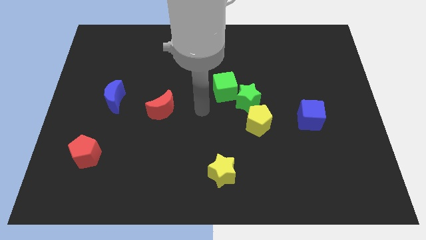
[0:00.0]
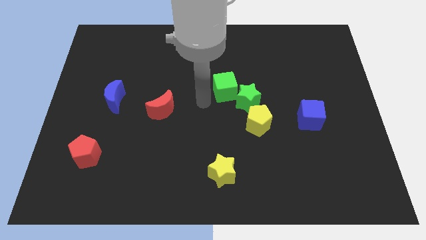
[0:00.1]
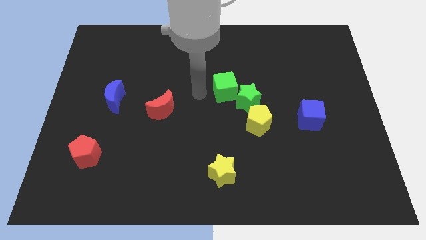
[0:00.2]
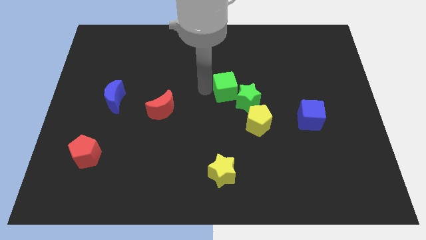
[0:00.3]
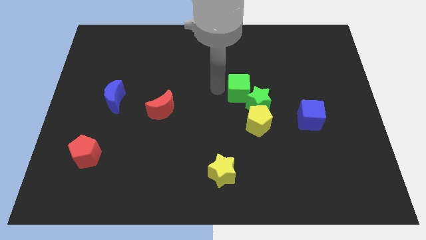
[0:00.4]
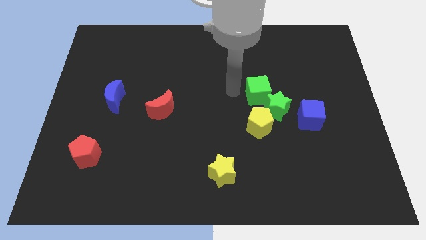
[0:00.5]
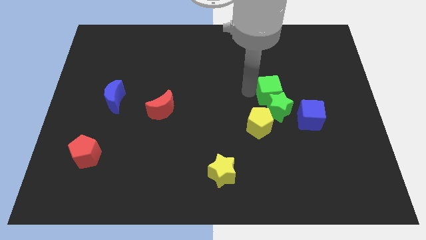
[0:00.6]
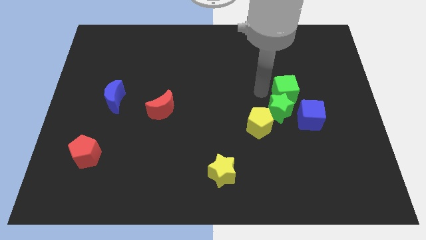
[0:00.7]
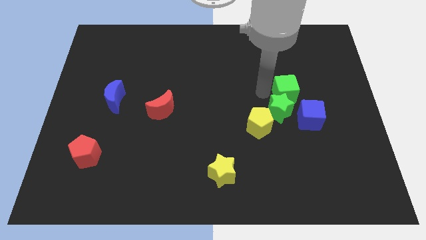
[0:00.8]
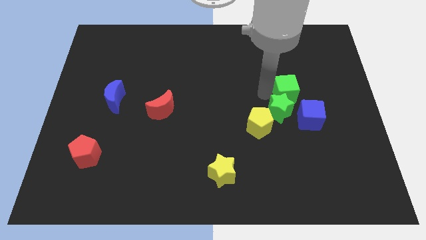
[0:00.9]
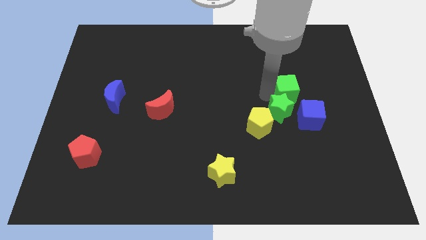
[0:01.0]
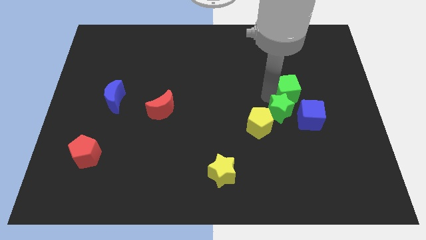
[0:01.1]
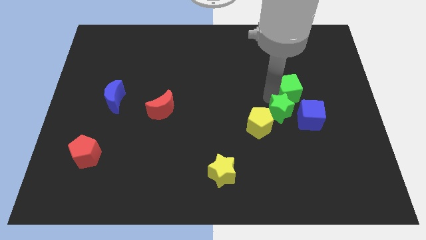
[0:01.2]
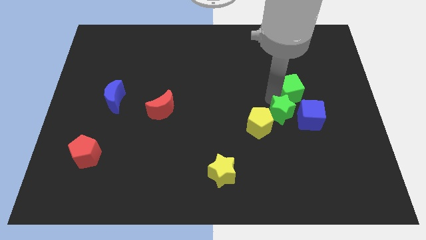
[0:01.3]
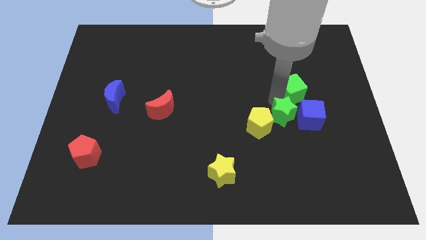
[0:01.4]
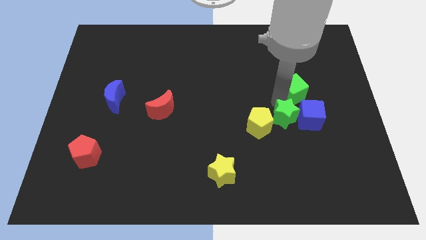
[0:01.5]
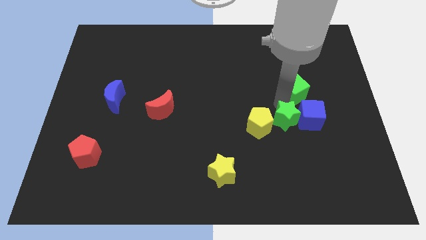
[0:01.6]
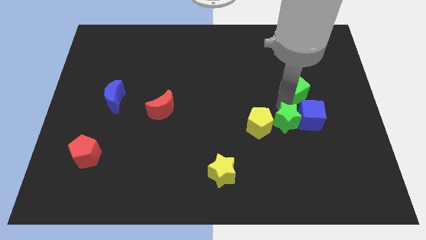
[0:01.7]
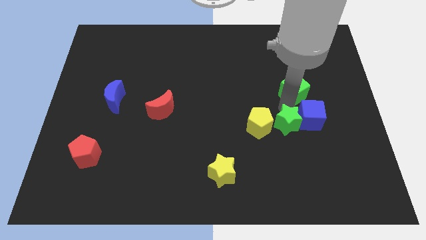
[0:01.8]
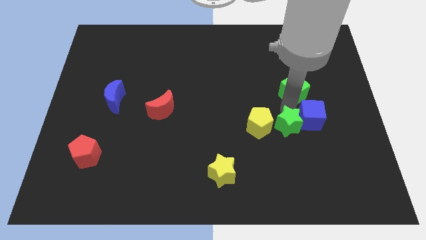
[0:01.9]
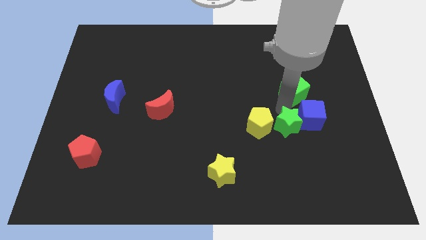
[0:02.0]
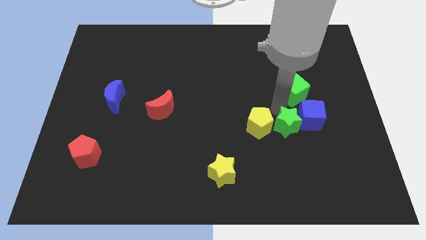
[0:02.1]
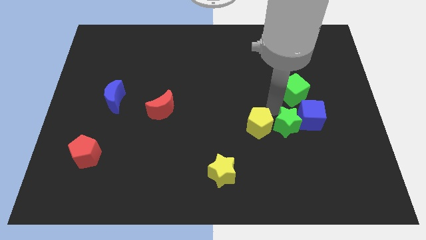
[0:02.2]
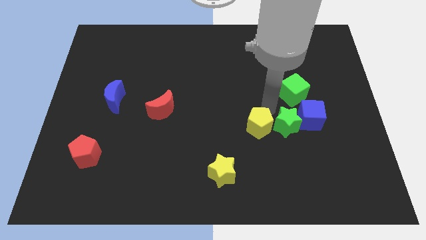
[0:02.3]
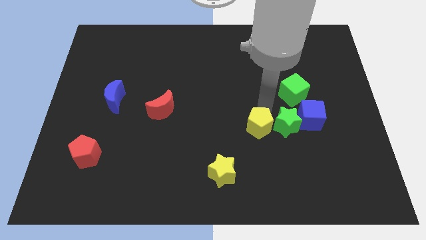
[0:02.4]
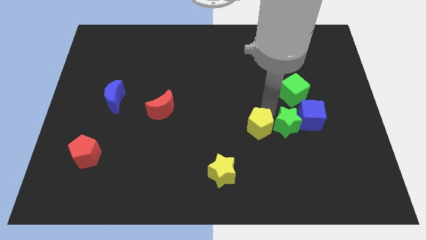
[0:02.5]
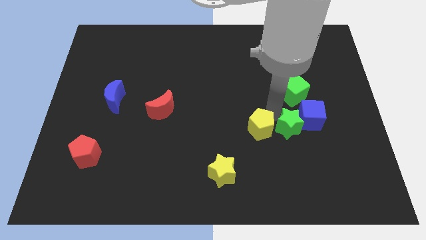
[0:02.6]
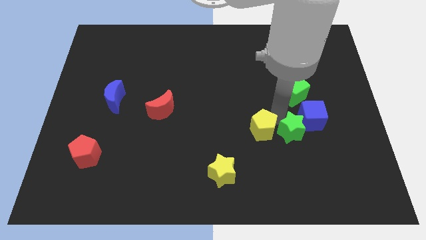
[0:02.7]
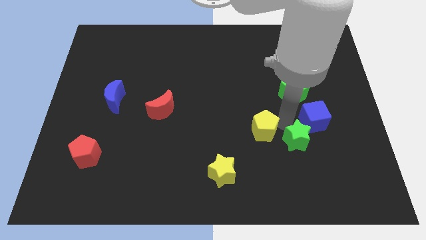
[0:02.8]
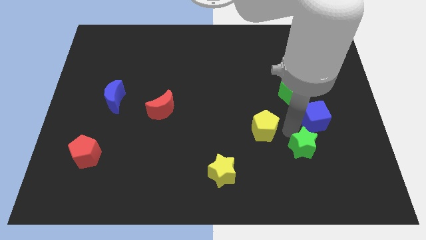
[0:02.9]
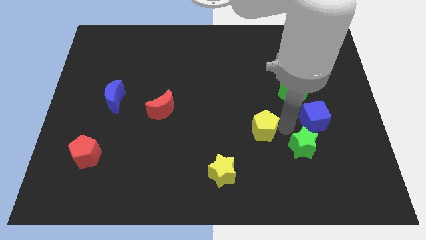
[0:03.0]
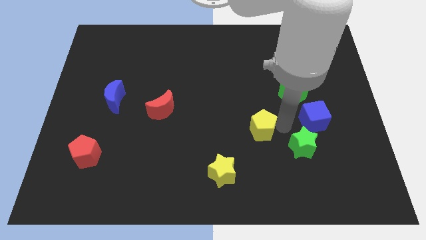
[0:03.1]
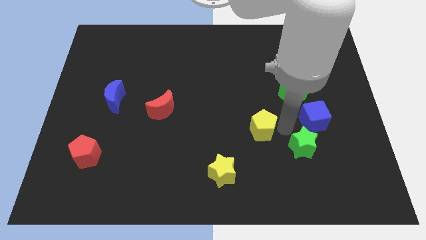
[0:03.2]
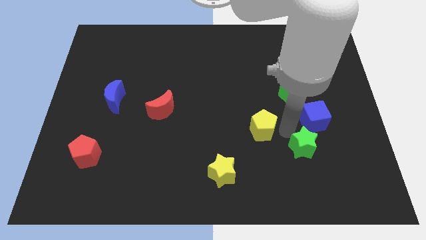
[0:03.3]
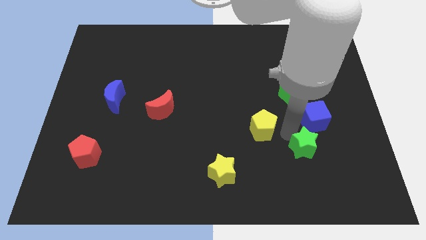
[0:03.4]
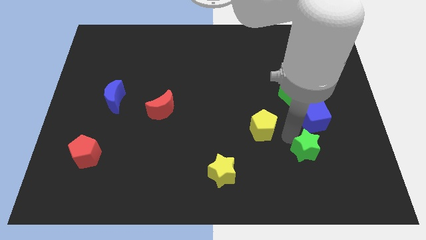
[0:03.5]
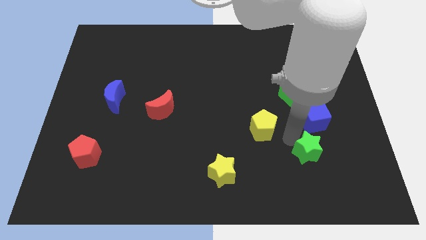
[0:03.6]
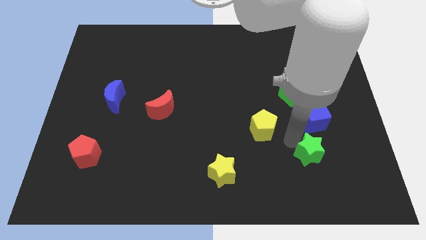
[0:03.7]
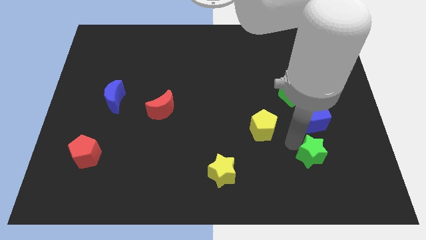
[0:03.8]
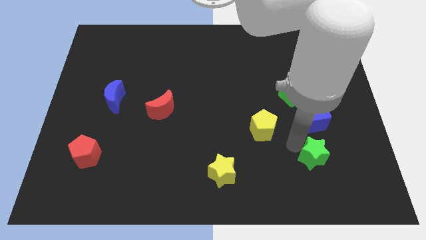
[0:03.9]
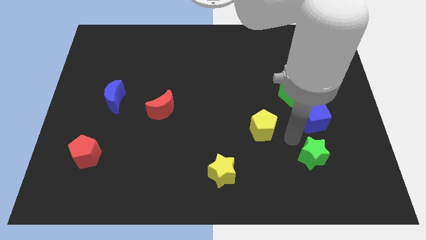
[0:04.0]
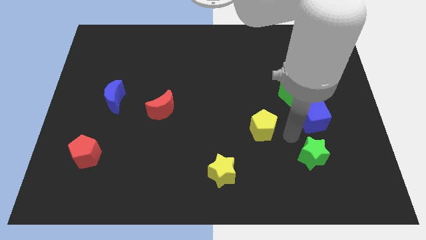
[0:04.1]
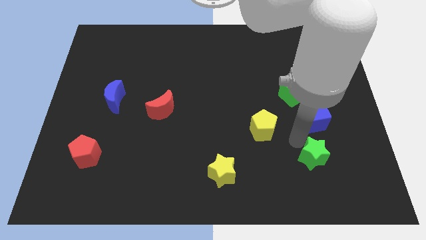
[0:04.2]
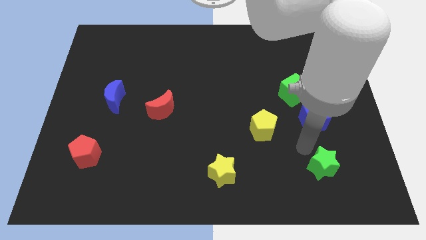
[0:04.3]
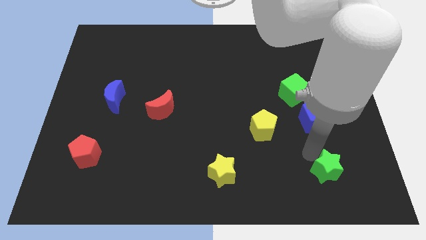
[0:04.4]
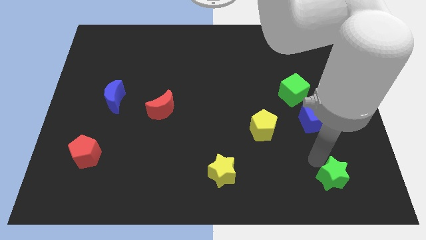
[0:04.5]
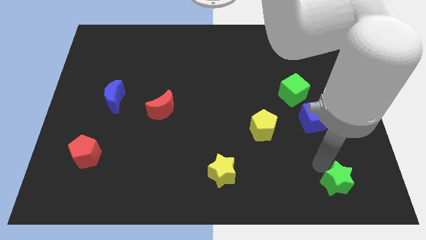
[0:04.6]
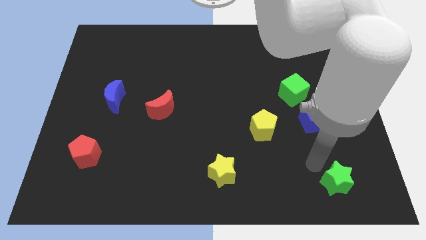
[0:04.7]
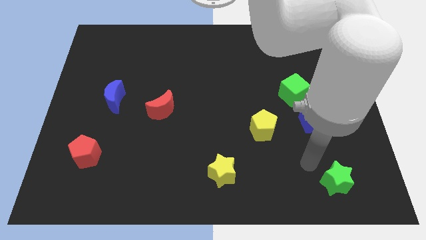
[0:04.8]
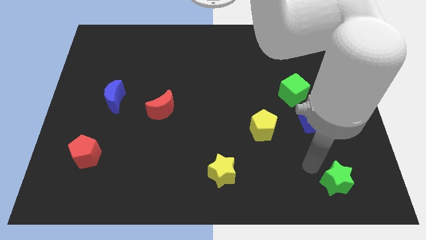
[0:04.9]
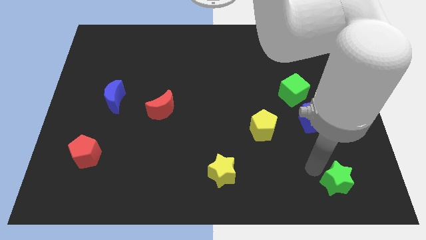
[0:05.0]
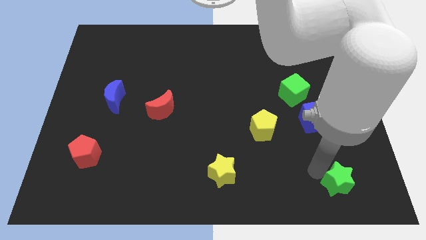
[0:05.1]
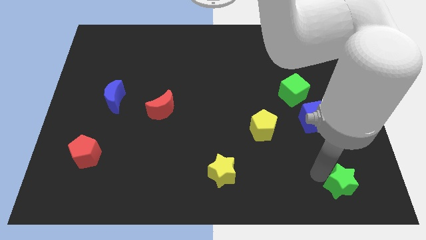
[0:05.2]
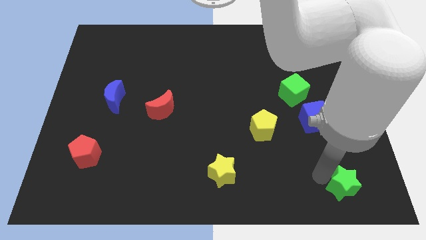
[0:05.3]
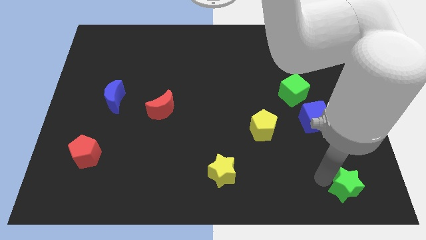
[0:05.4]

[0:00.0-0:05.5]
slide the green star to the lower right corner

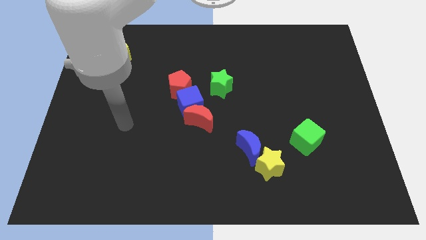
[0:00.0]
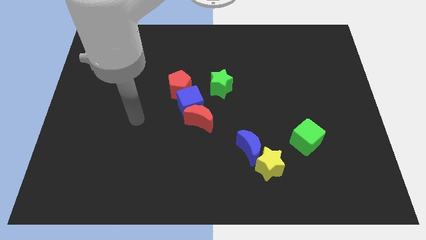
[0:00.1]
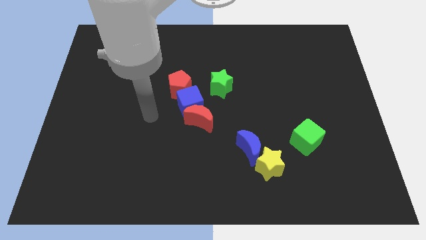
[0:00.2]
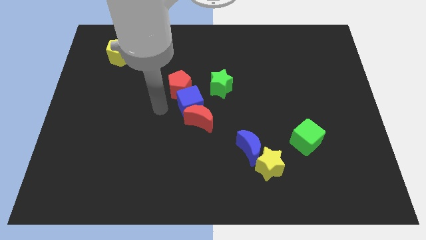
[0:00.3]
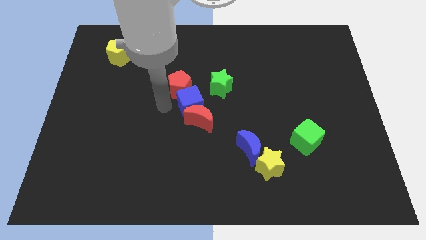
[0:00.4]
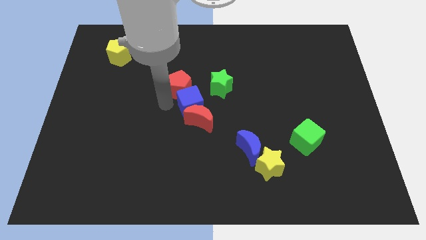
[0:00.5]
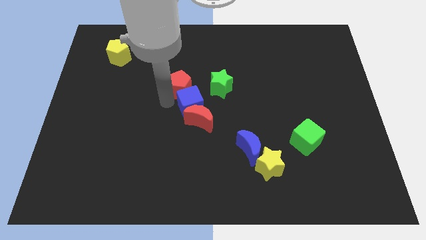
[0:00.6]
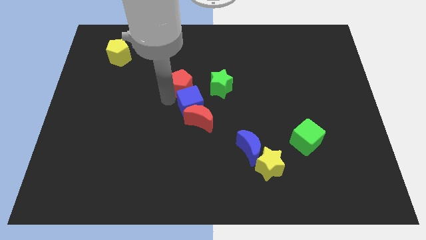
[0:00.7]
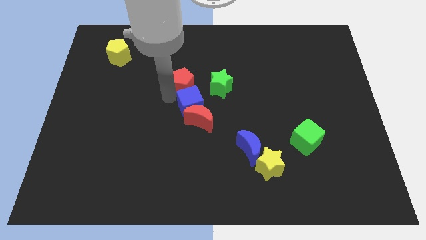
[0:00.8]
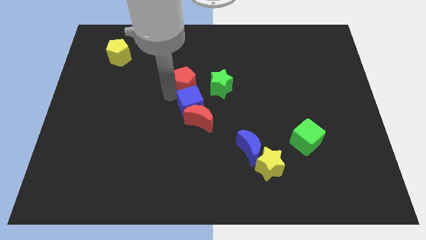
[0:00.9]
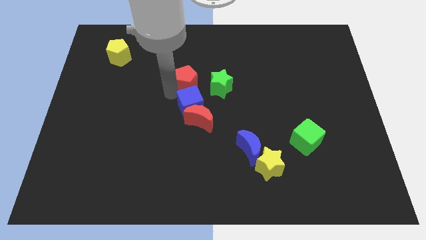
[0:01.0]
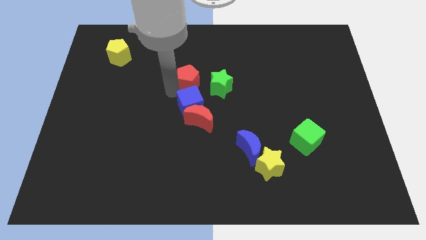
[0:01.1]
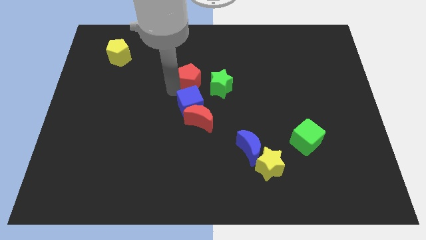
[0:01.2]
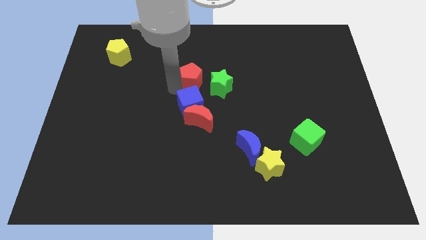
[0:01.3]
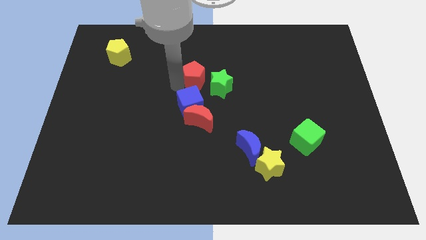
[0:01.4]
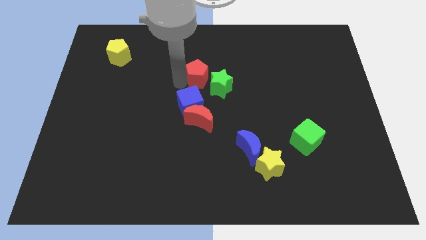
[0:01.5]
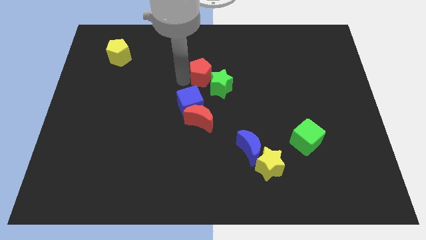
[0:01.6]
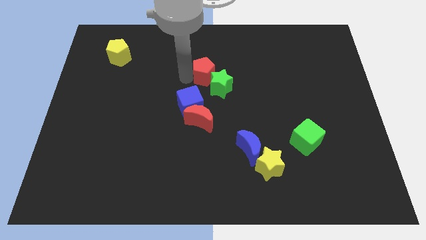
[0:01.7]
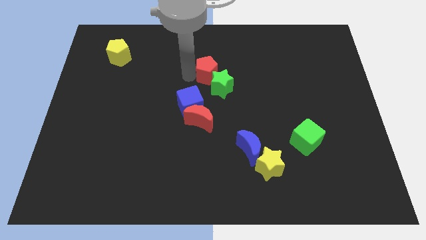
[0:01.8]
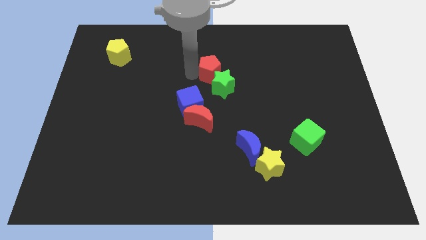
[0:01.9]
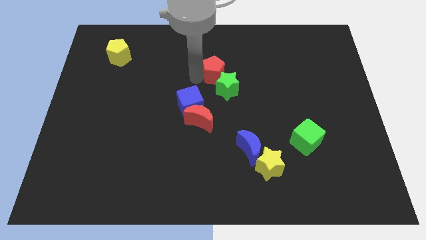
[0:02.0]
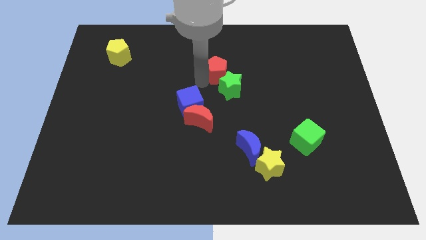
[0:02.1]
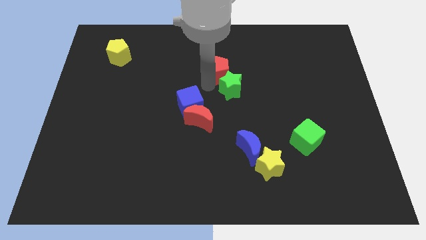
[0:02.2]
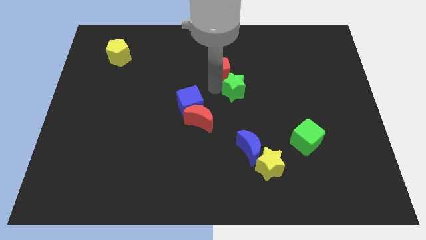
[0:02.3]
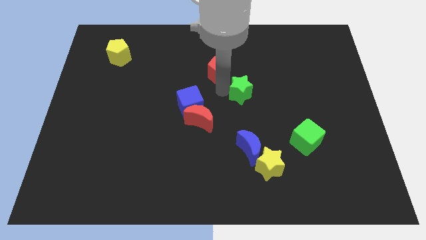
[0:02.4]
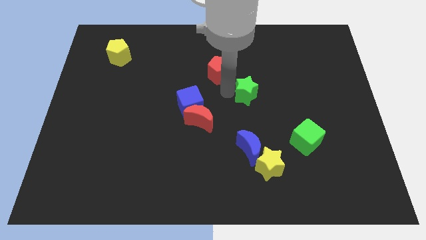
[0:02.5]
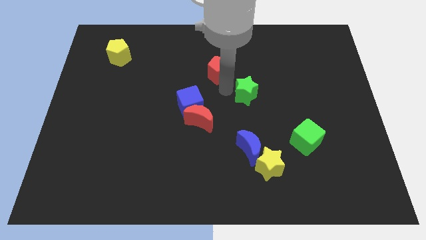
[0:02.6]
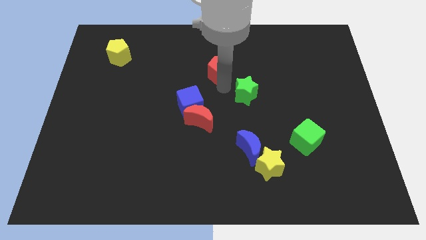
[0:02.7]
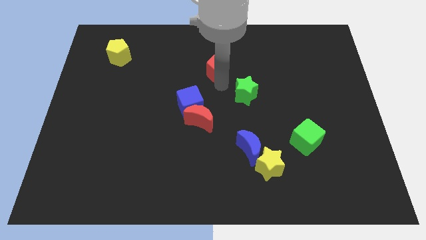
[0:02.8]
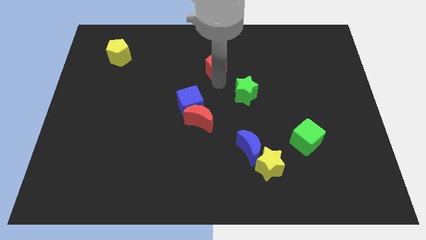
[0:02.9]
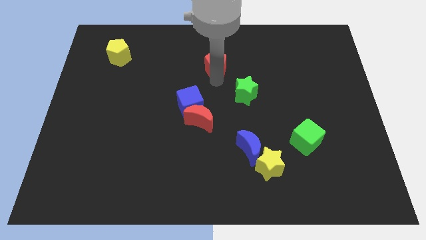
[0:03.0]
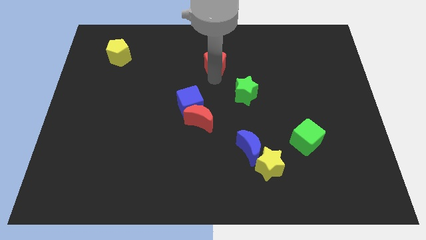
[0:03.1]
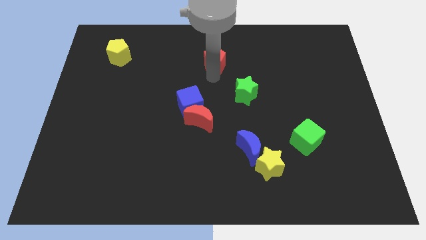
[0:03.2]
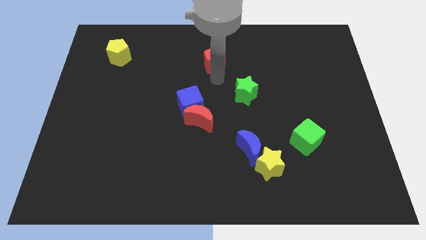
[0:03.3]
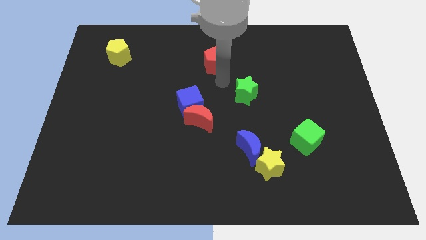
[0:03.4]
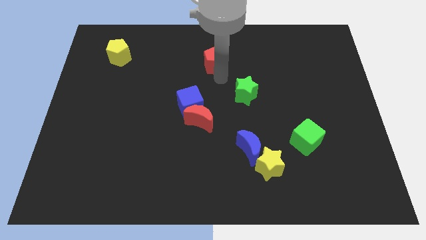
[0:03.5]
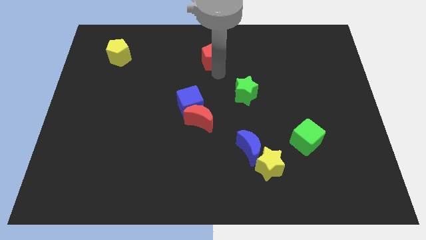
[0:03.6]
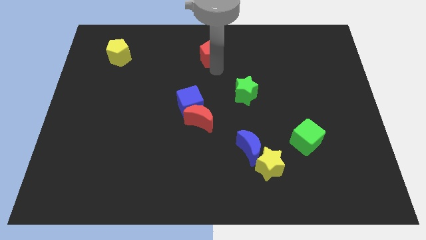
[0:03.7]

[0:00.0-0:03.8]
move the red pentagon to the top
